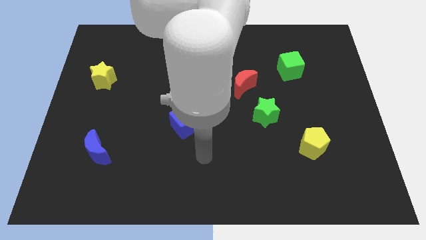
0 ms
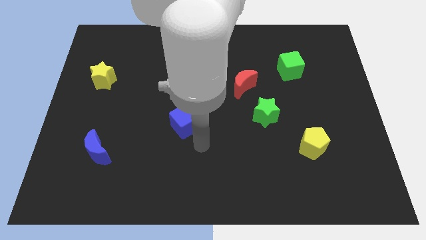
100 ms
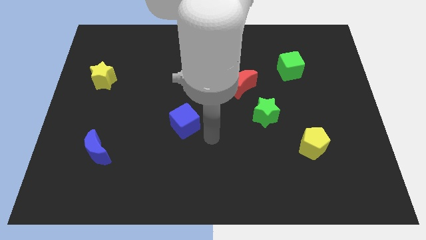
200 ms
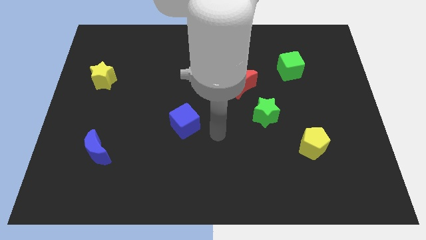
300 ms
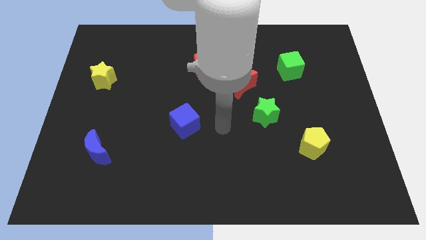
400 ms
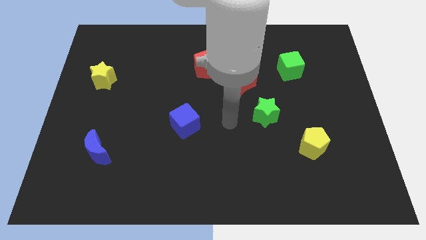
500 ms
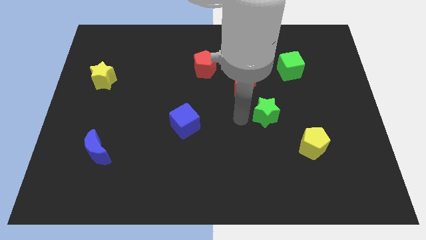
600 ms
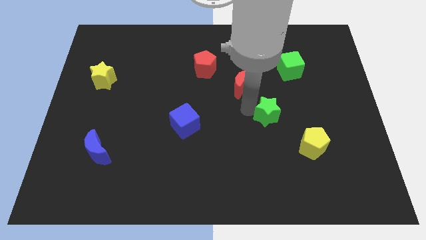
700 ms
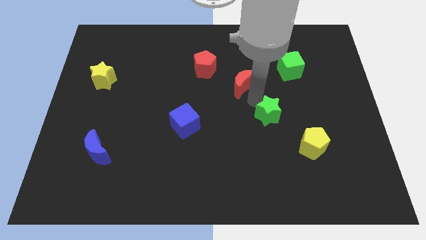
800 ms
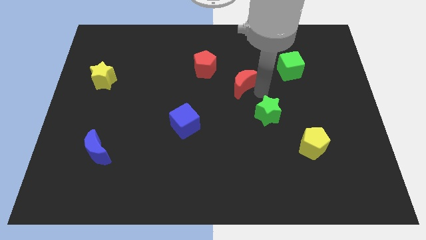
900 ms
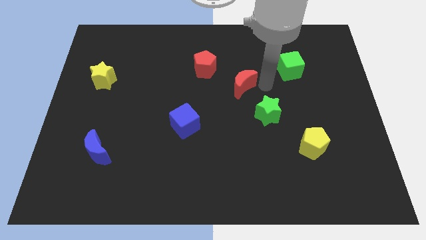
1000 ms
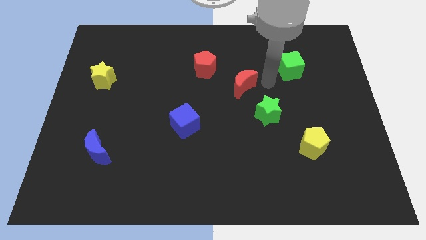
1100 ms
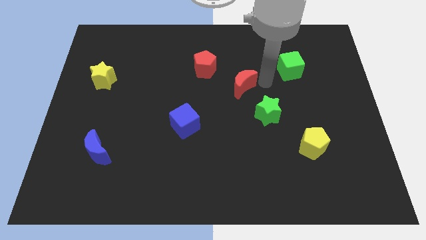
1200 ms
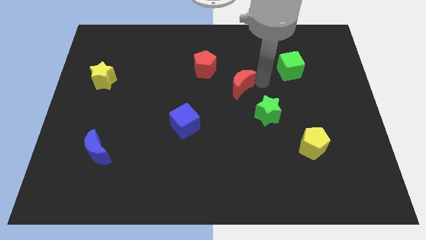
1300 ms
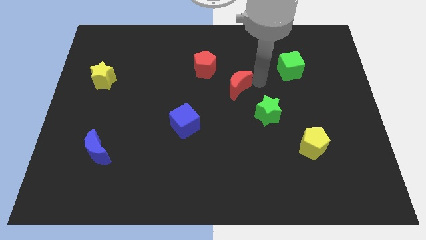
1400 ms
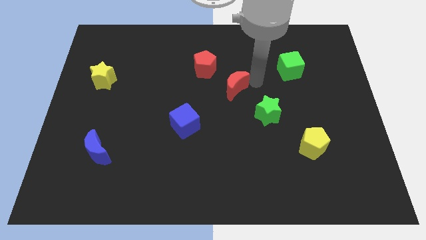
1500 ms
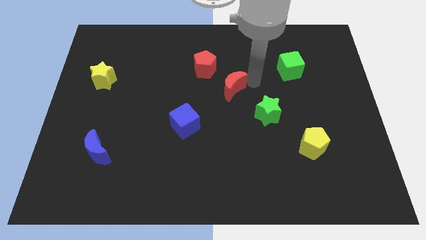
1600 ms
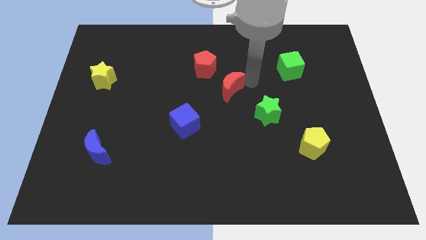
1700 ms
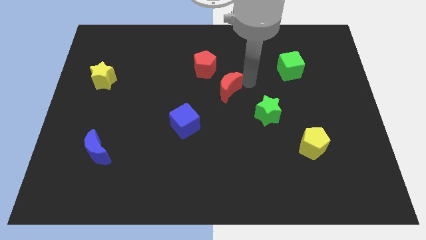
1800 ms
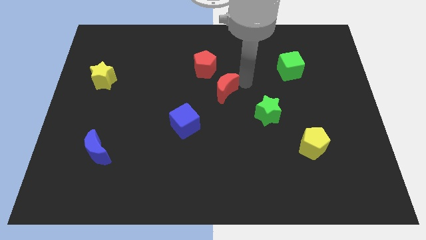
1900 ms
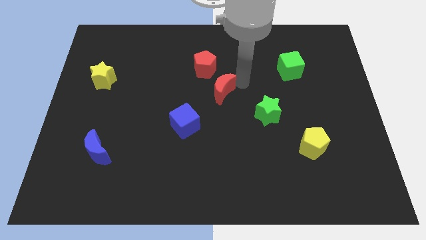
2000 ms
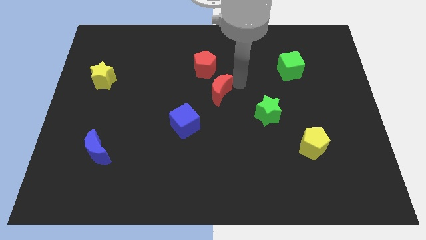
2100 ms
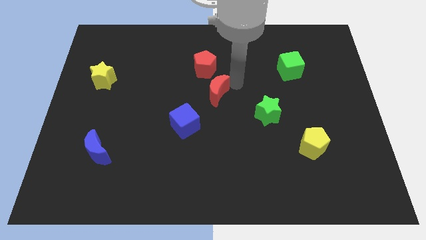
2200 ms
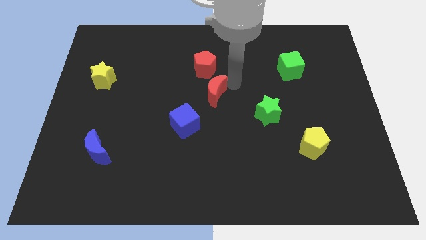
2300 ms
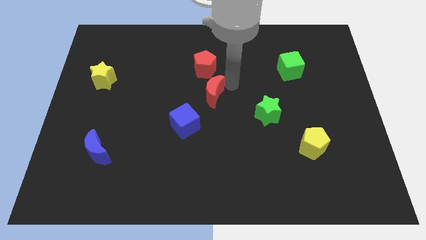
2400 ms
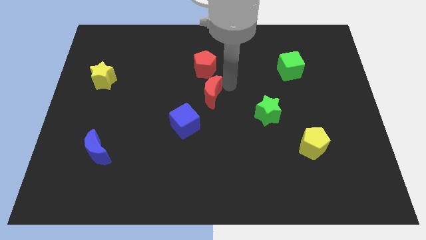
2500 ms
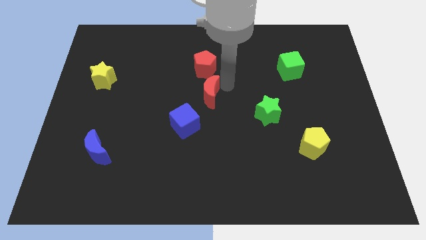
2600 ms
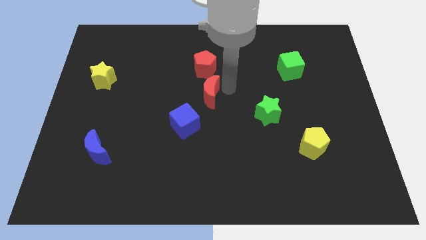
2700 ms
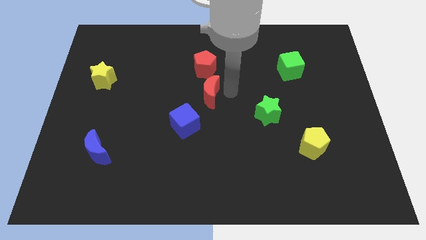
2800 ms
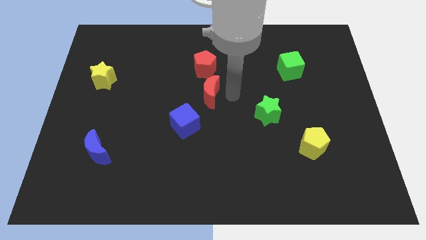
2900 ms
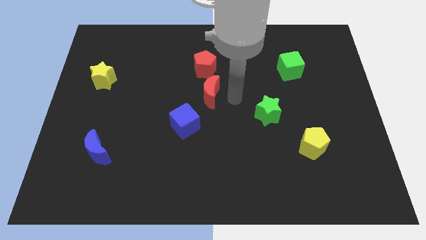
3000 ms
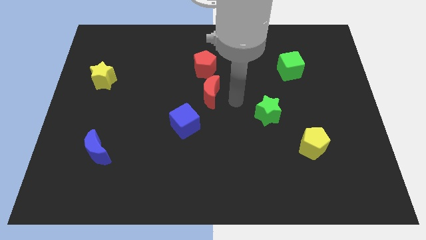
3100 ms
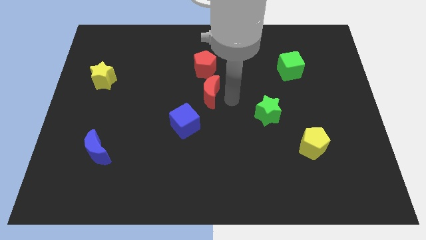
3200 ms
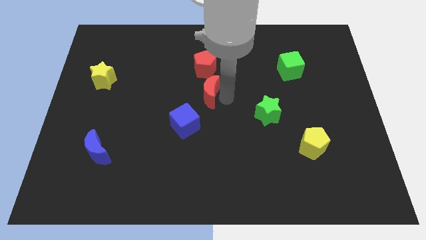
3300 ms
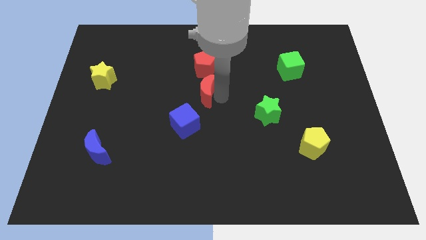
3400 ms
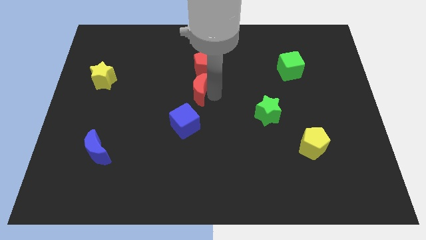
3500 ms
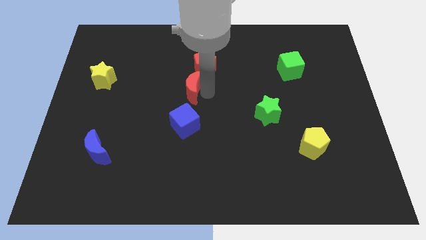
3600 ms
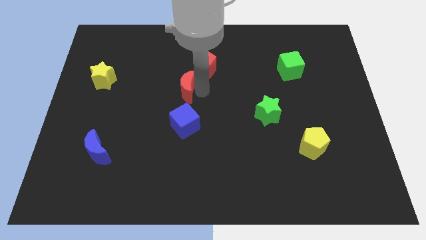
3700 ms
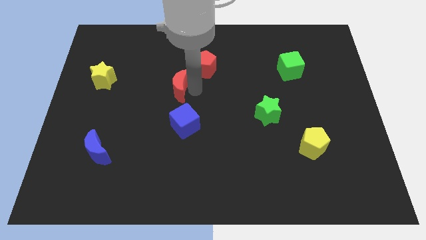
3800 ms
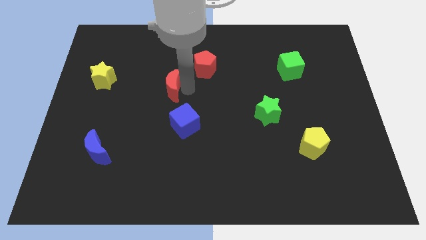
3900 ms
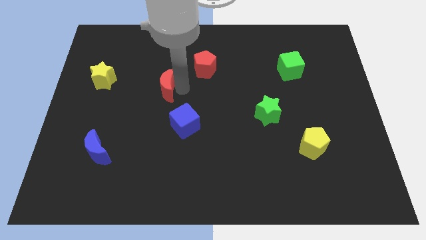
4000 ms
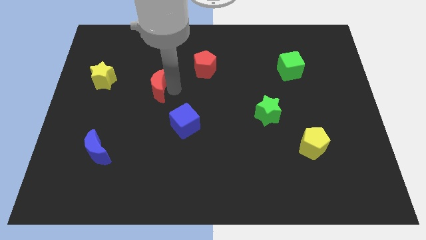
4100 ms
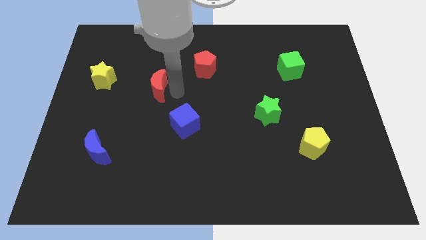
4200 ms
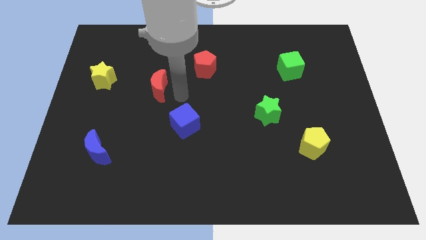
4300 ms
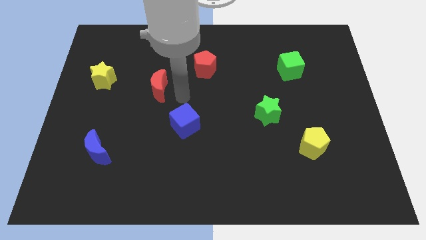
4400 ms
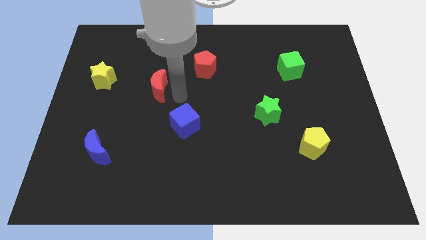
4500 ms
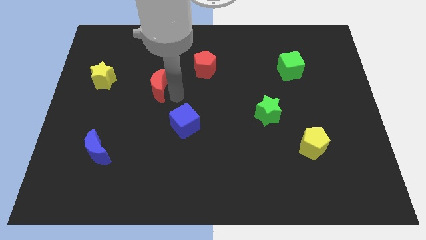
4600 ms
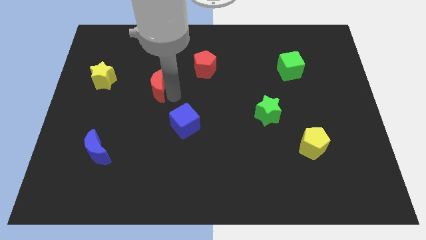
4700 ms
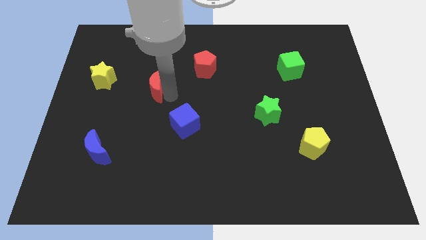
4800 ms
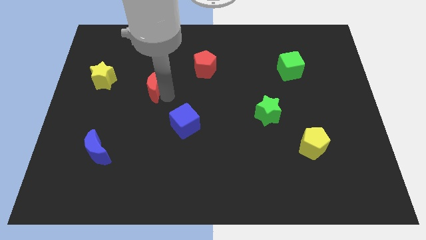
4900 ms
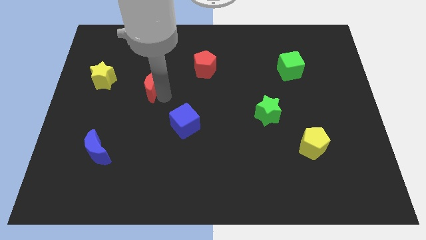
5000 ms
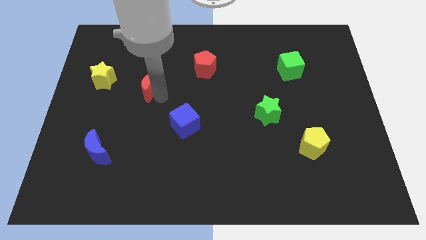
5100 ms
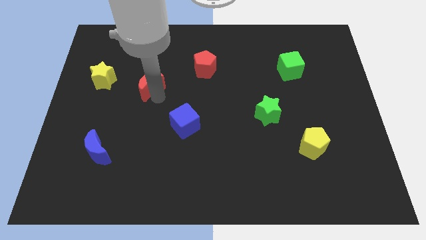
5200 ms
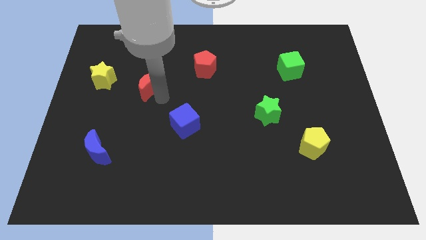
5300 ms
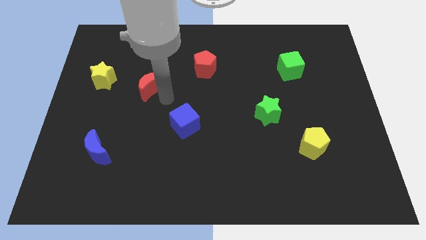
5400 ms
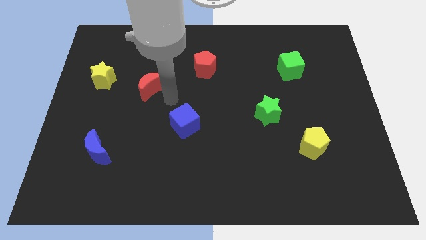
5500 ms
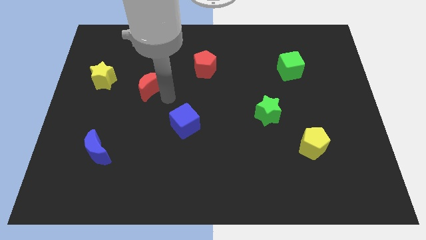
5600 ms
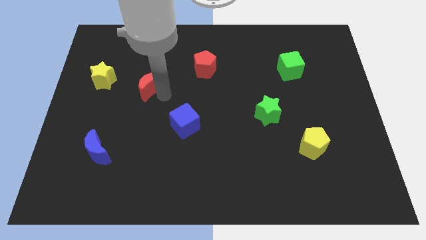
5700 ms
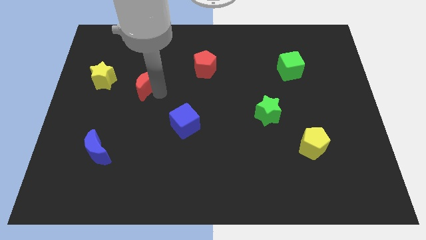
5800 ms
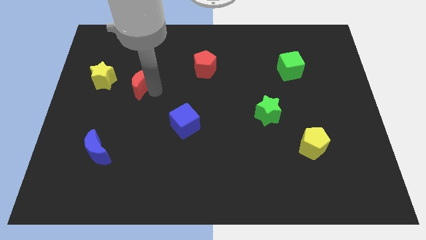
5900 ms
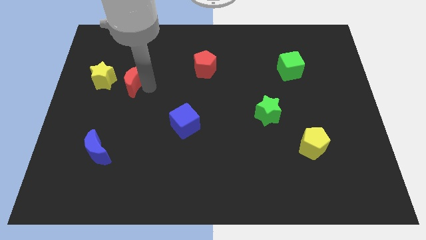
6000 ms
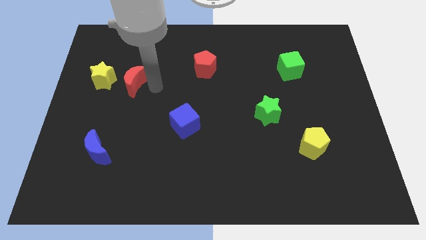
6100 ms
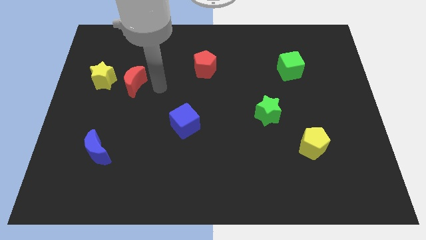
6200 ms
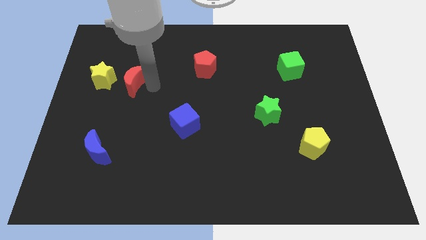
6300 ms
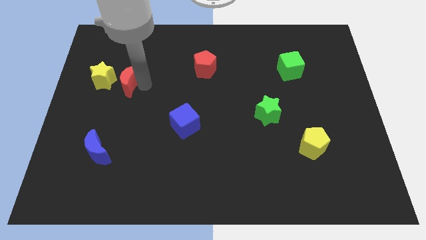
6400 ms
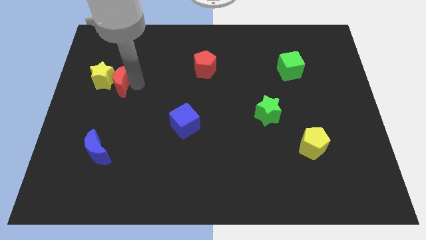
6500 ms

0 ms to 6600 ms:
slide the red moon to the yellow star

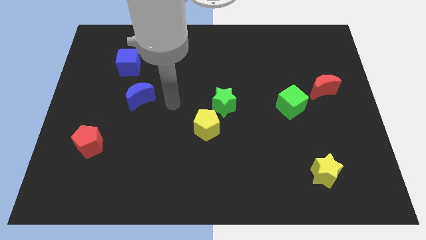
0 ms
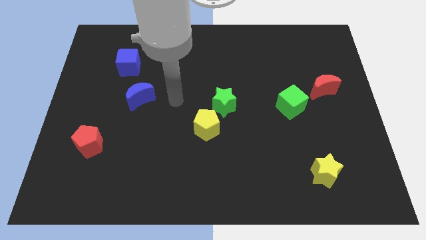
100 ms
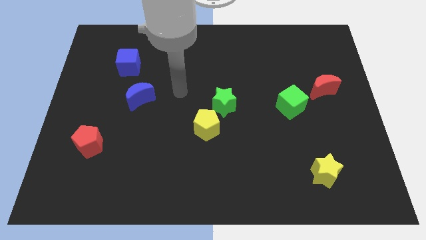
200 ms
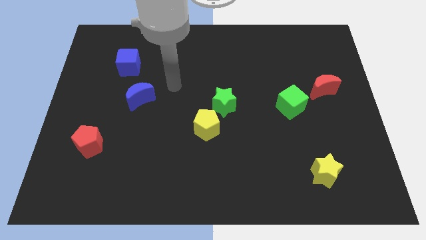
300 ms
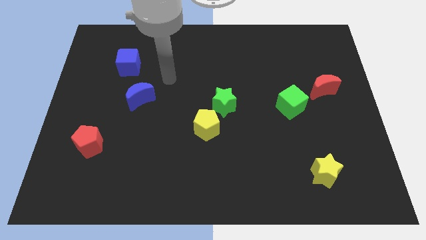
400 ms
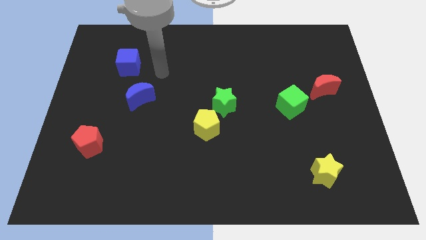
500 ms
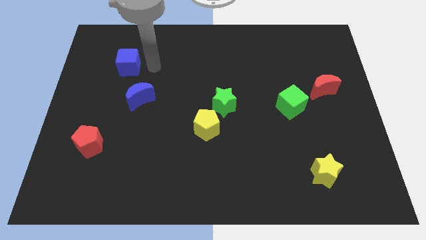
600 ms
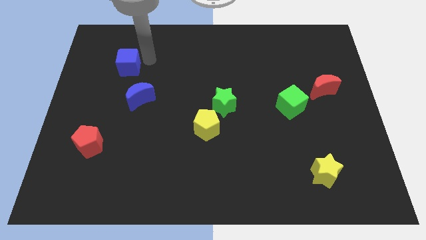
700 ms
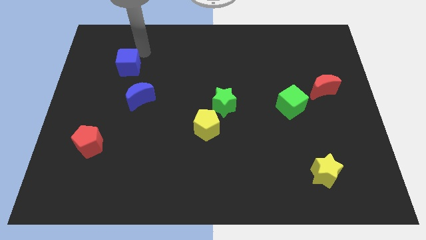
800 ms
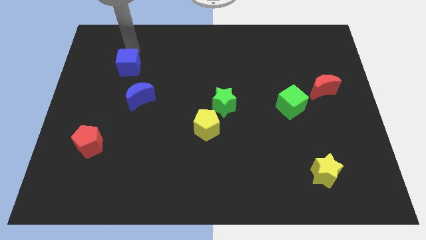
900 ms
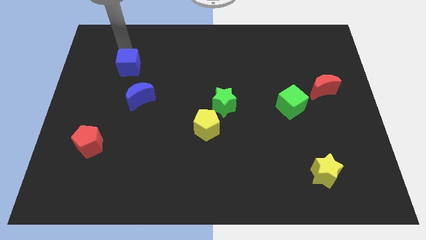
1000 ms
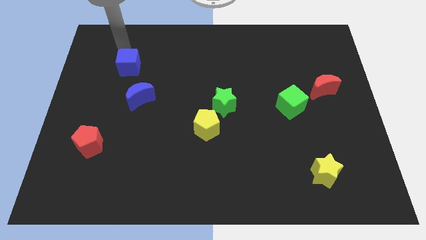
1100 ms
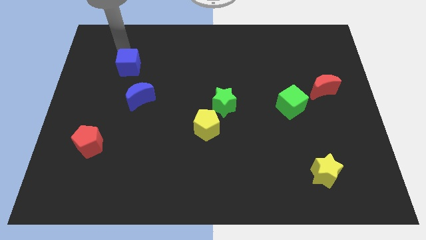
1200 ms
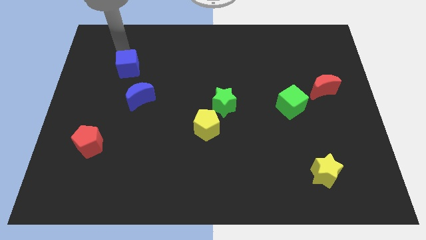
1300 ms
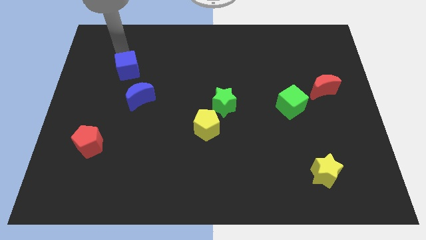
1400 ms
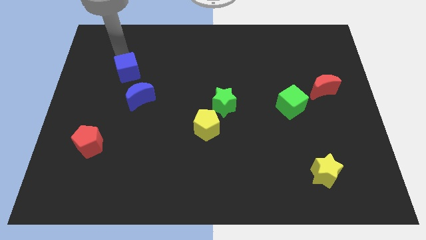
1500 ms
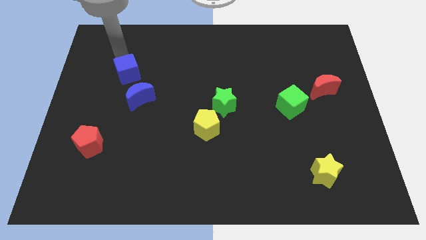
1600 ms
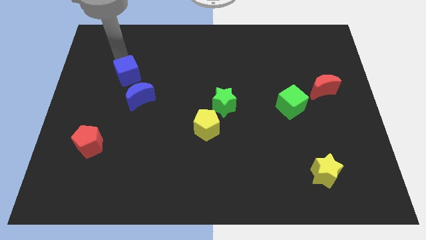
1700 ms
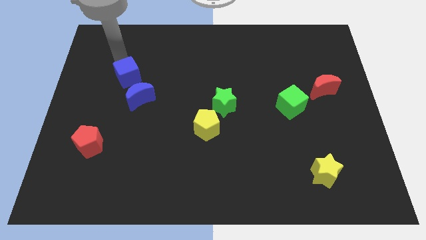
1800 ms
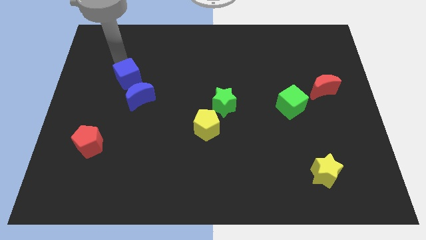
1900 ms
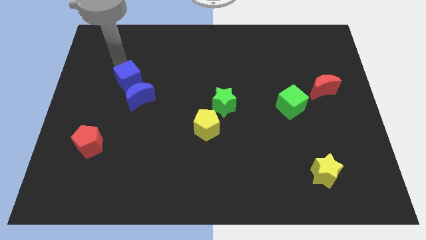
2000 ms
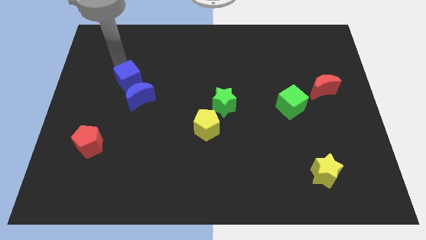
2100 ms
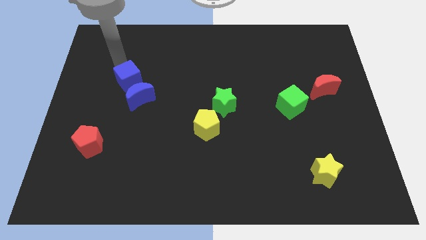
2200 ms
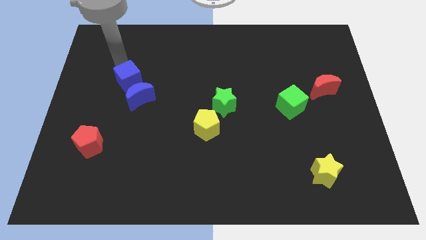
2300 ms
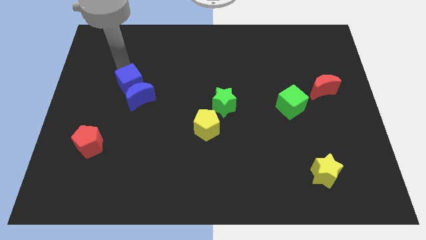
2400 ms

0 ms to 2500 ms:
move the blue cube close to the blue moon
